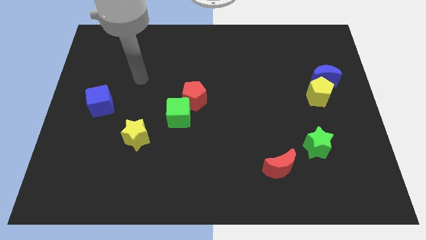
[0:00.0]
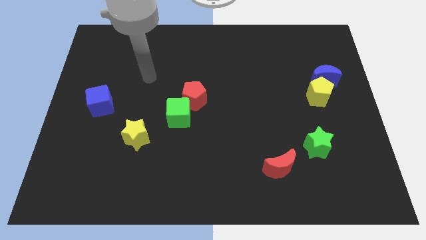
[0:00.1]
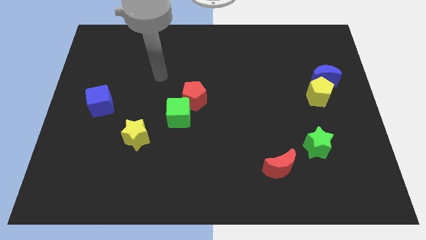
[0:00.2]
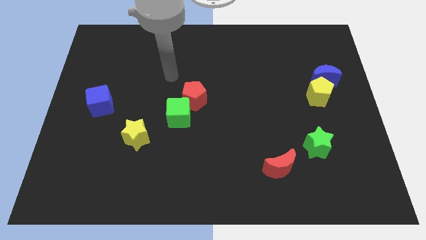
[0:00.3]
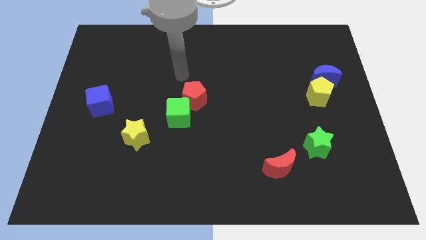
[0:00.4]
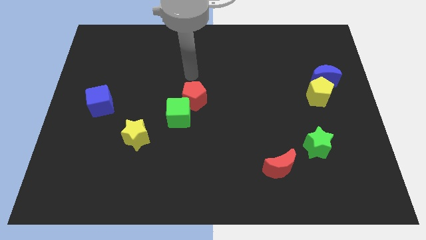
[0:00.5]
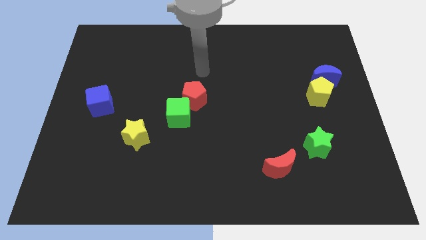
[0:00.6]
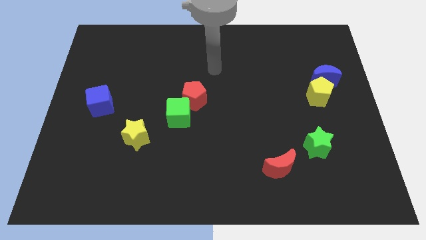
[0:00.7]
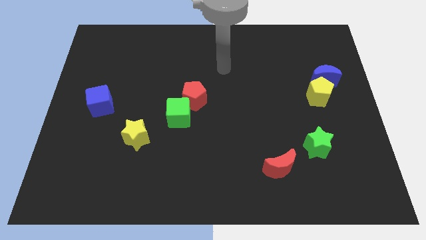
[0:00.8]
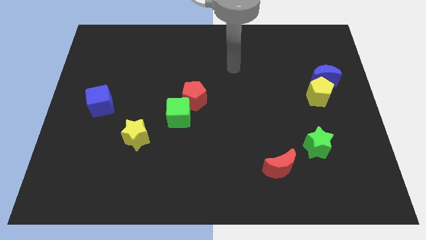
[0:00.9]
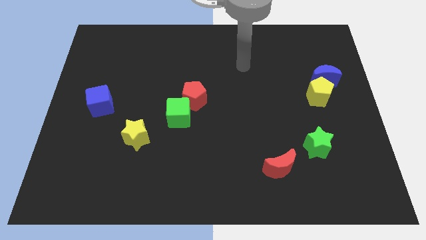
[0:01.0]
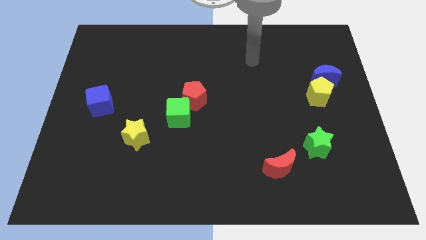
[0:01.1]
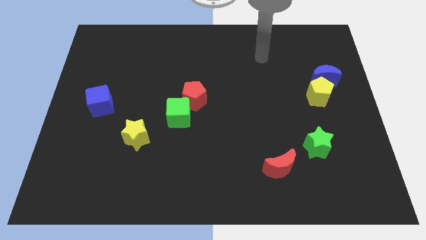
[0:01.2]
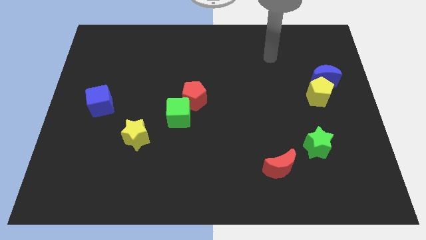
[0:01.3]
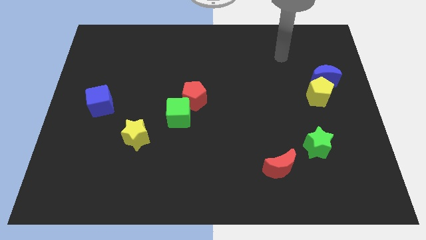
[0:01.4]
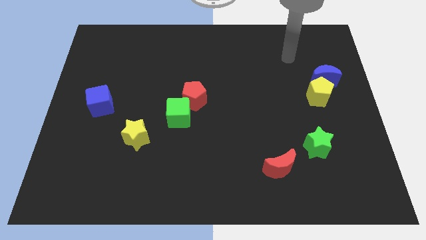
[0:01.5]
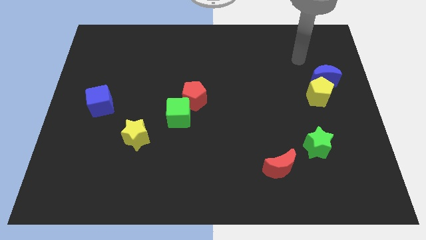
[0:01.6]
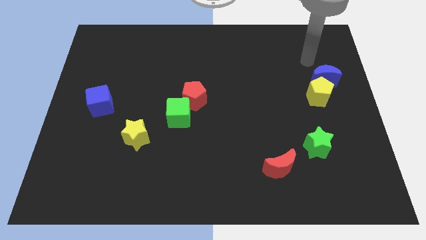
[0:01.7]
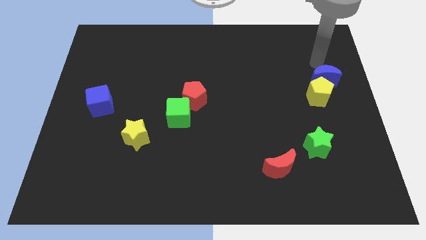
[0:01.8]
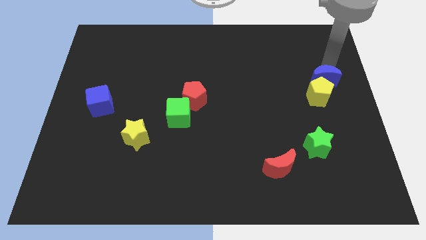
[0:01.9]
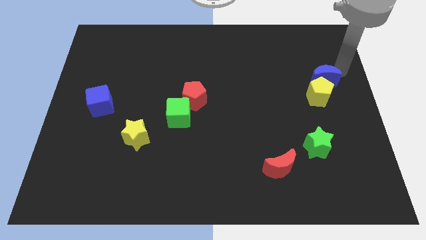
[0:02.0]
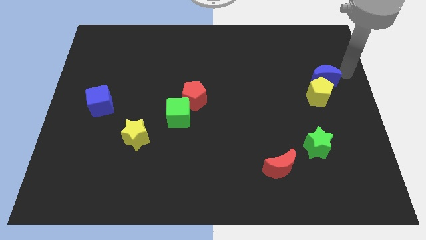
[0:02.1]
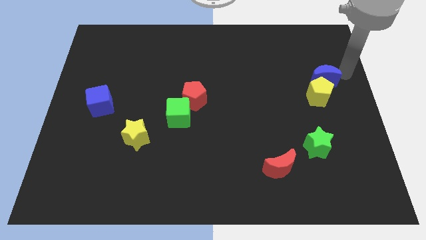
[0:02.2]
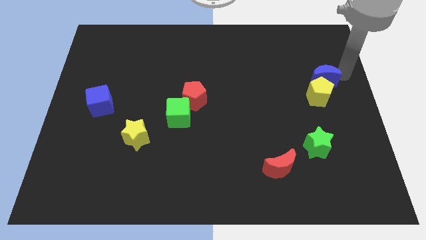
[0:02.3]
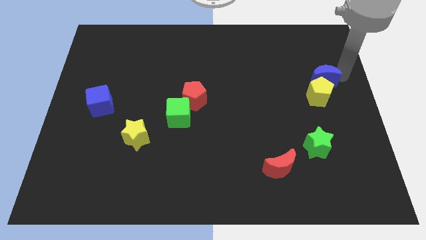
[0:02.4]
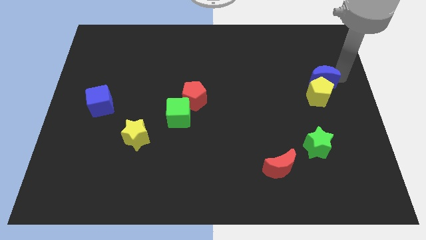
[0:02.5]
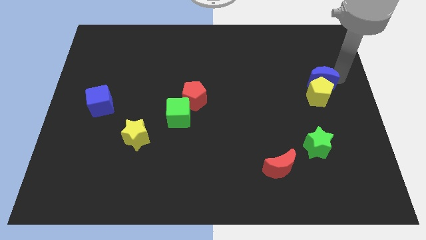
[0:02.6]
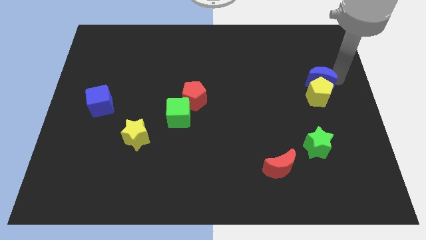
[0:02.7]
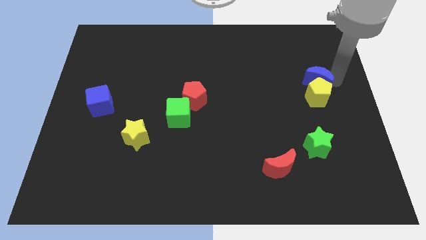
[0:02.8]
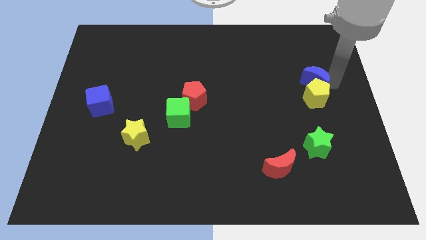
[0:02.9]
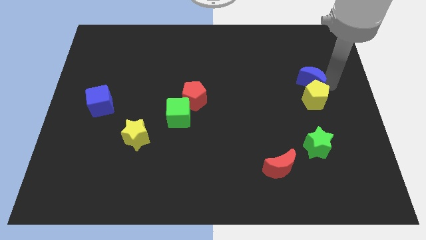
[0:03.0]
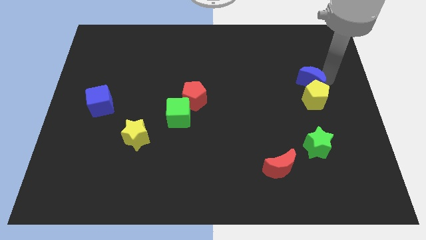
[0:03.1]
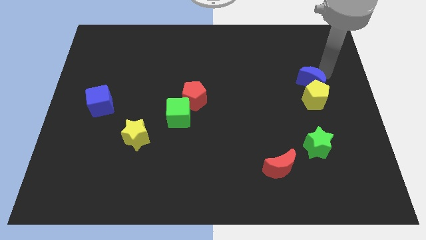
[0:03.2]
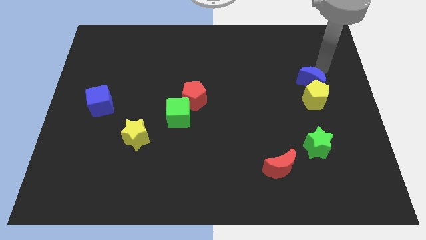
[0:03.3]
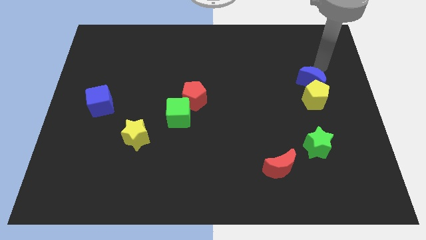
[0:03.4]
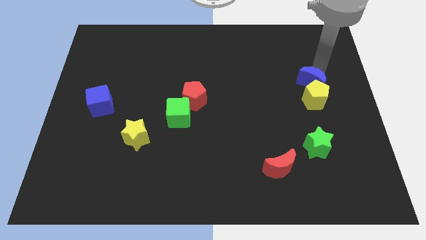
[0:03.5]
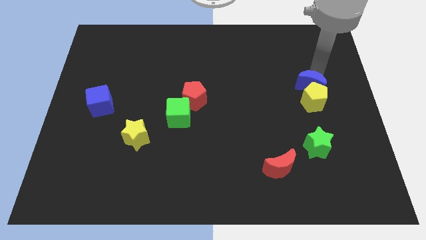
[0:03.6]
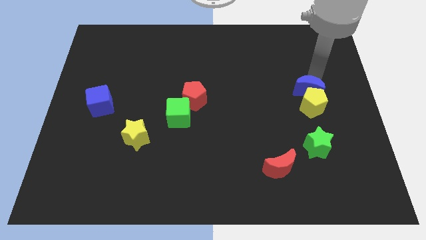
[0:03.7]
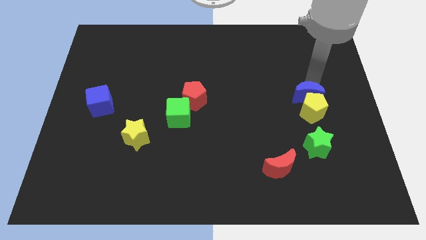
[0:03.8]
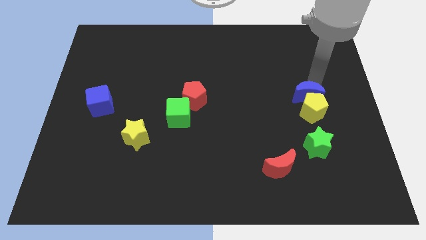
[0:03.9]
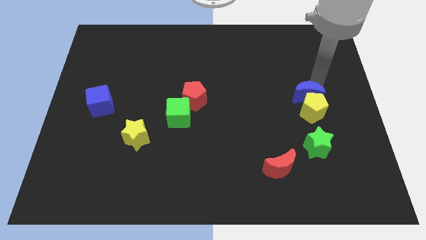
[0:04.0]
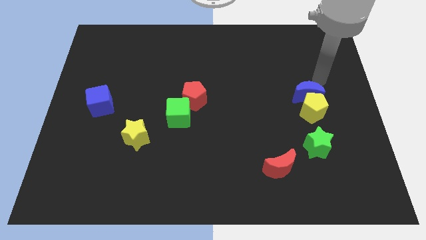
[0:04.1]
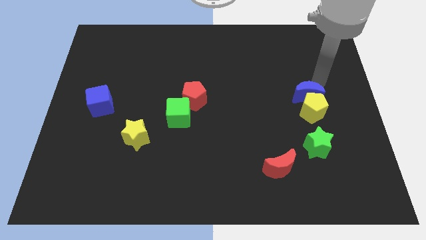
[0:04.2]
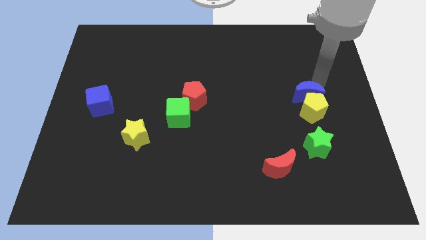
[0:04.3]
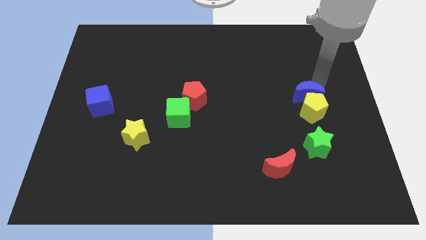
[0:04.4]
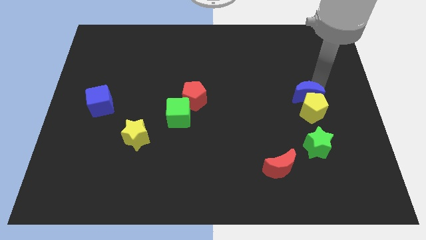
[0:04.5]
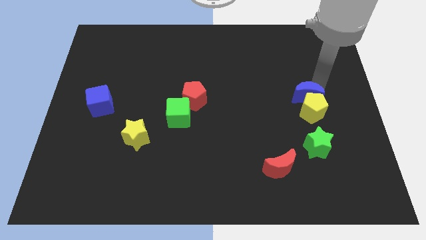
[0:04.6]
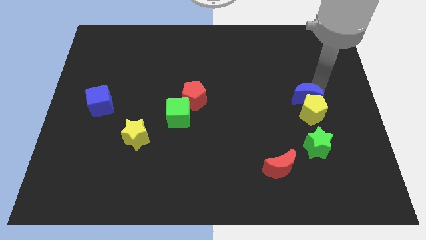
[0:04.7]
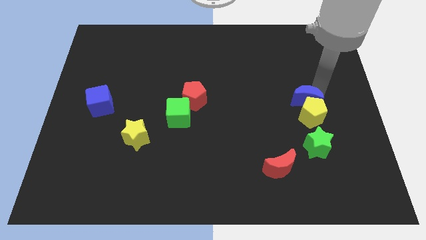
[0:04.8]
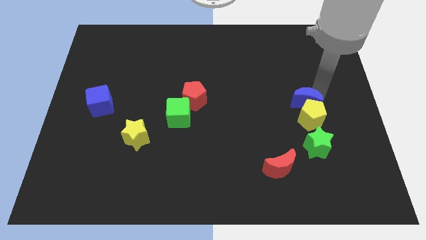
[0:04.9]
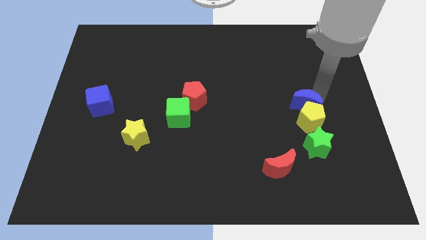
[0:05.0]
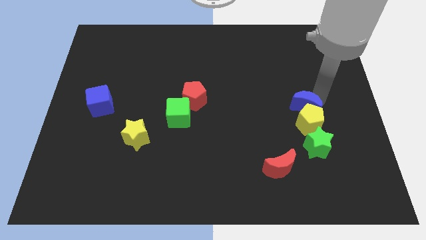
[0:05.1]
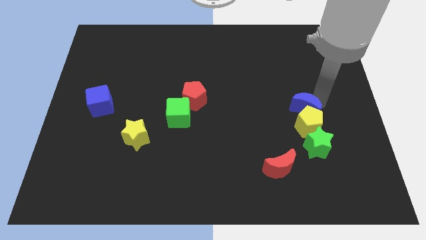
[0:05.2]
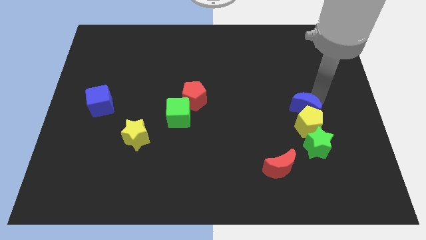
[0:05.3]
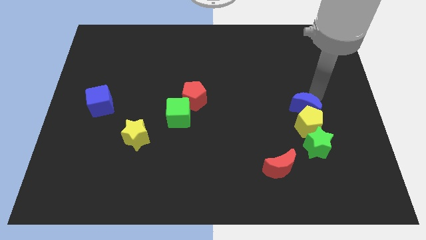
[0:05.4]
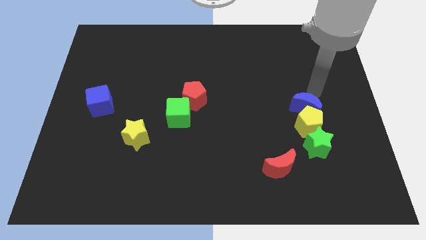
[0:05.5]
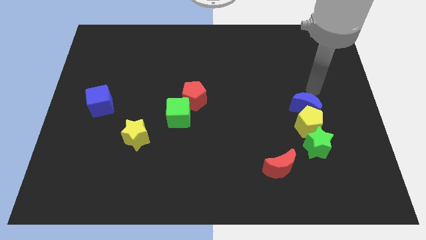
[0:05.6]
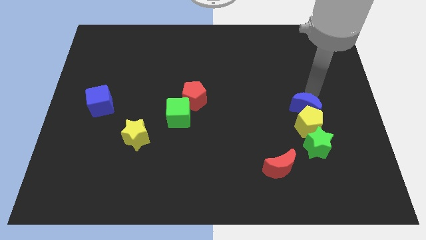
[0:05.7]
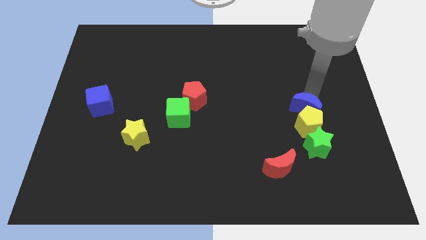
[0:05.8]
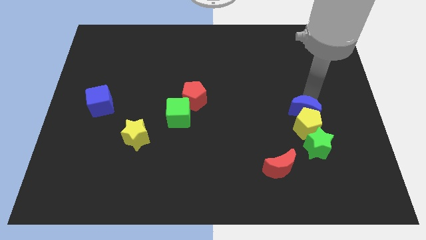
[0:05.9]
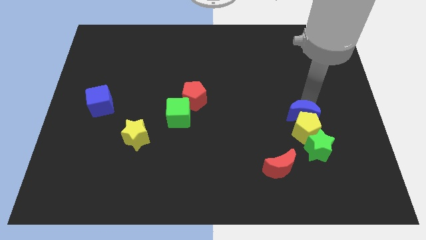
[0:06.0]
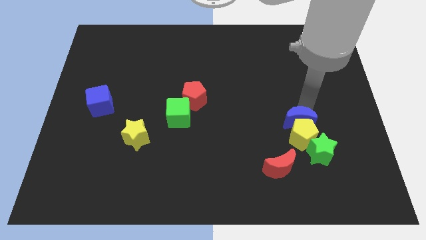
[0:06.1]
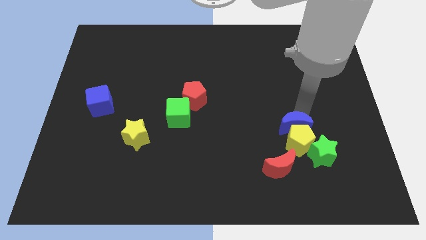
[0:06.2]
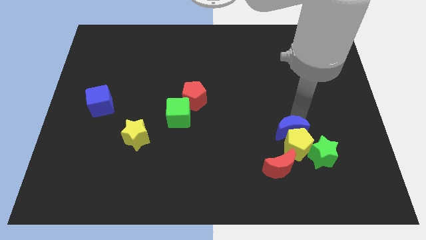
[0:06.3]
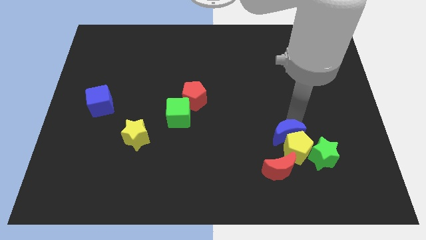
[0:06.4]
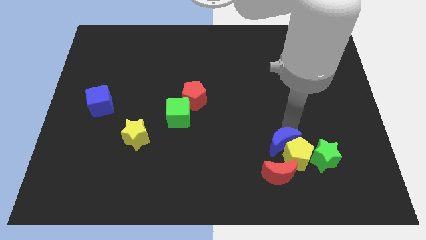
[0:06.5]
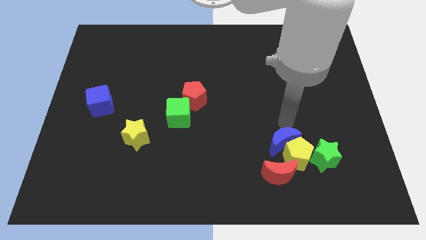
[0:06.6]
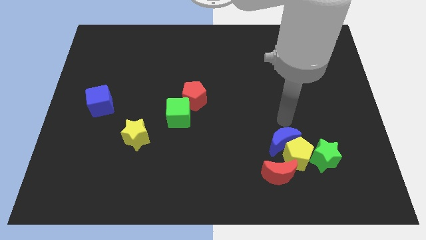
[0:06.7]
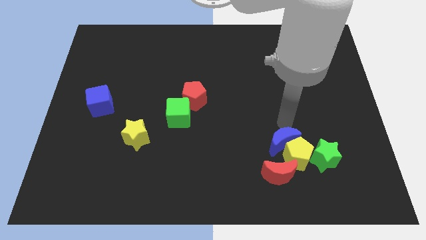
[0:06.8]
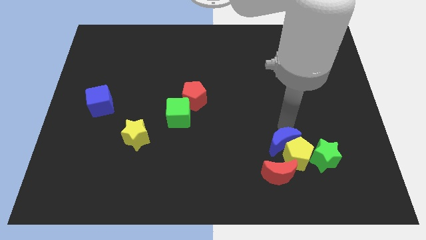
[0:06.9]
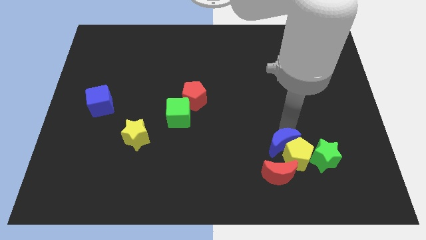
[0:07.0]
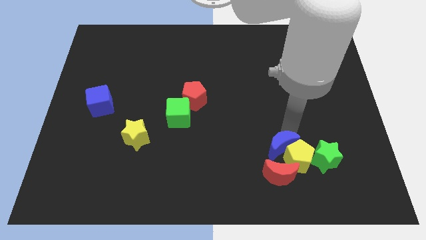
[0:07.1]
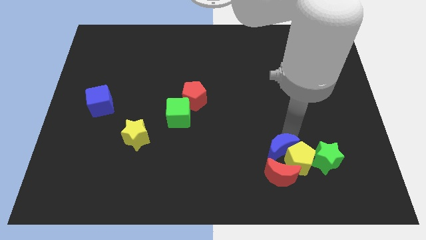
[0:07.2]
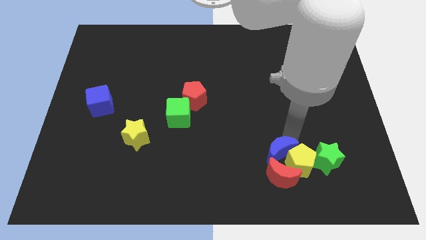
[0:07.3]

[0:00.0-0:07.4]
put the blue moon next to the red moon

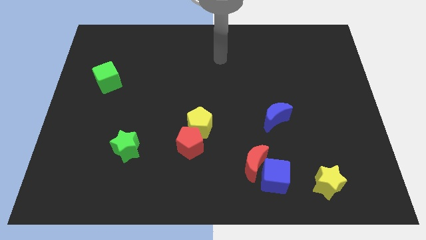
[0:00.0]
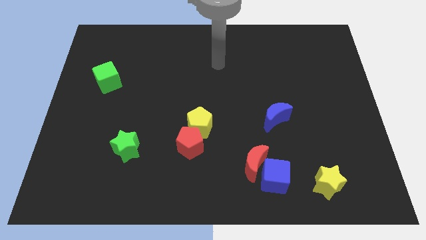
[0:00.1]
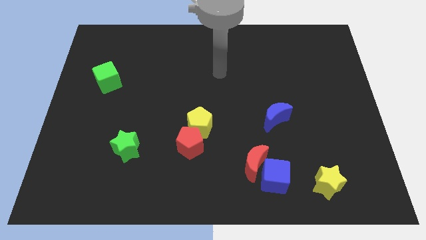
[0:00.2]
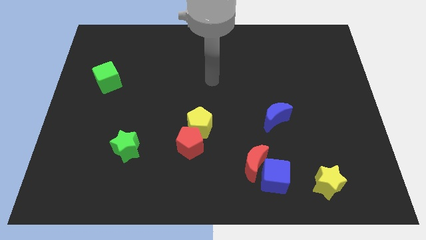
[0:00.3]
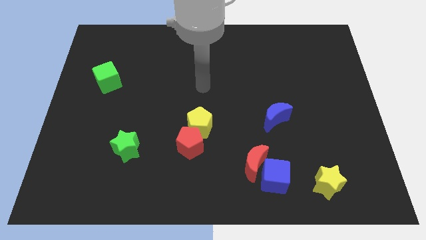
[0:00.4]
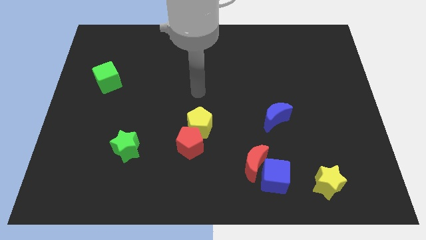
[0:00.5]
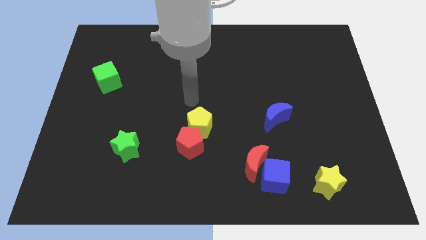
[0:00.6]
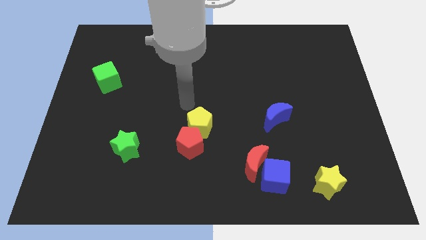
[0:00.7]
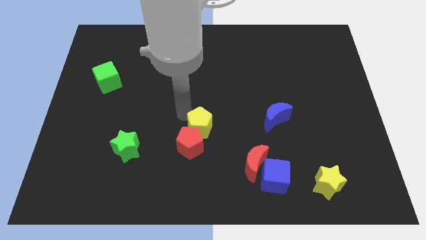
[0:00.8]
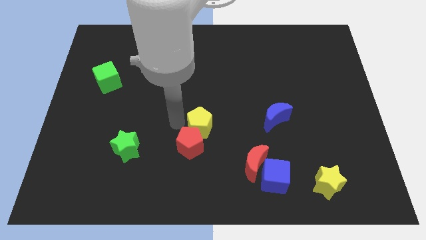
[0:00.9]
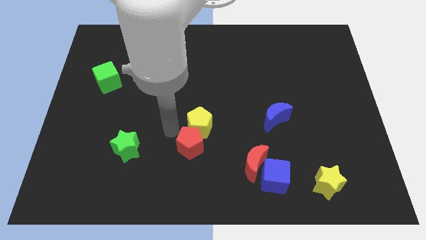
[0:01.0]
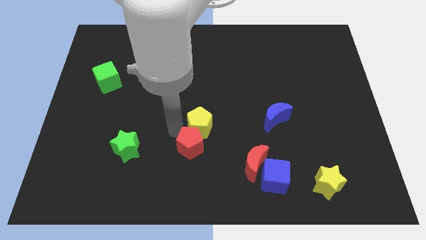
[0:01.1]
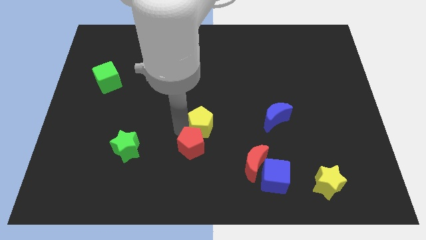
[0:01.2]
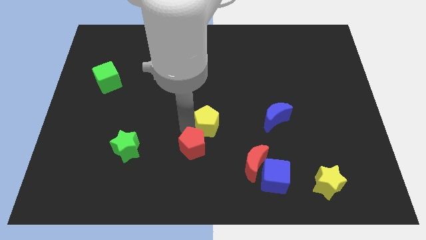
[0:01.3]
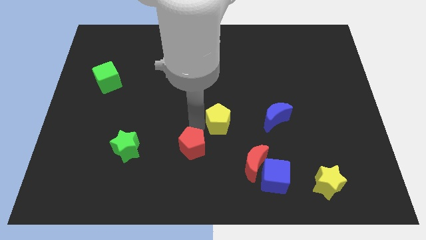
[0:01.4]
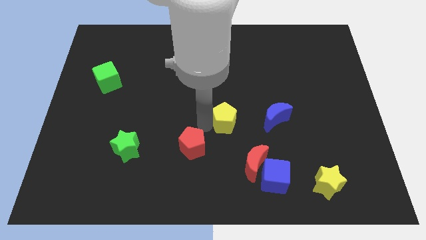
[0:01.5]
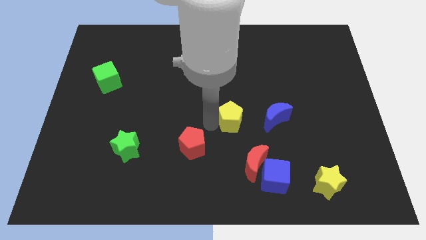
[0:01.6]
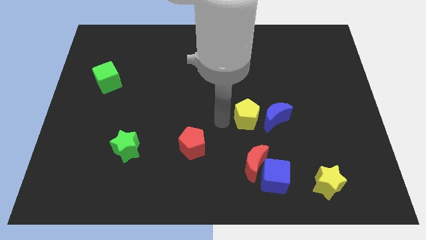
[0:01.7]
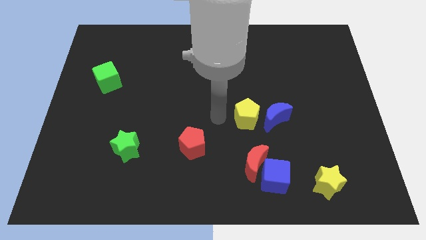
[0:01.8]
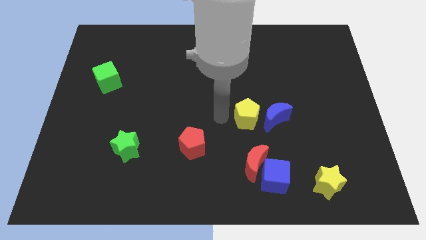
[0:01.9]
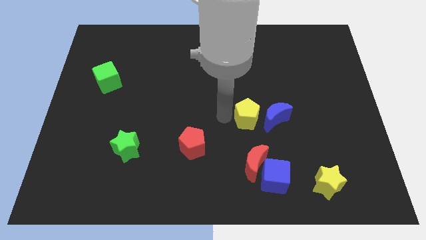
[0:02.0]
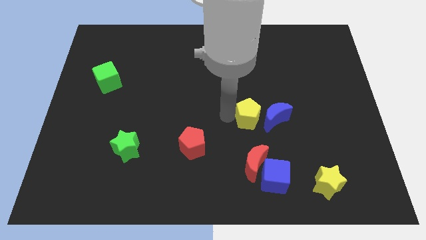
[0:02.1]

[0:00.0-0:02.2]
push the yellow pentagon towards the blue moon
